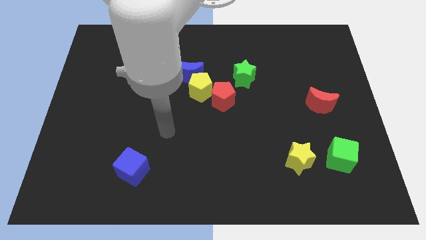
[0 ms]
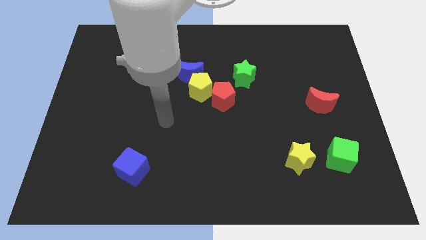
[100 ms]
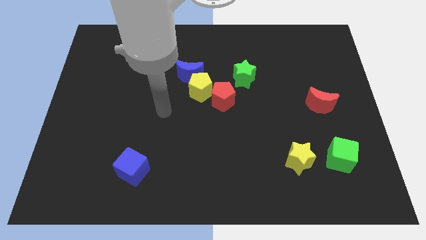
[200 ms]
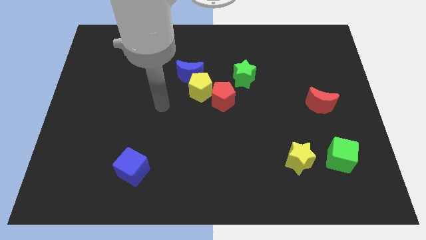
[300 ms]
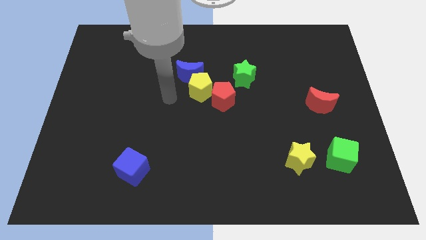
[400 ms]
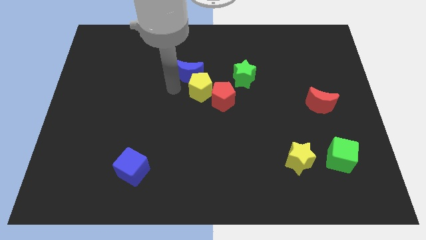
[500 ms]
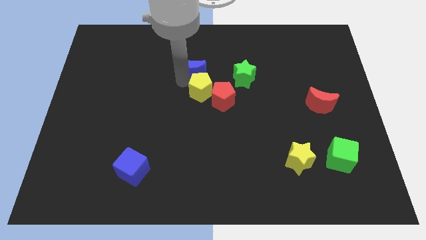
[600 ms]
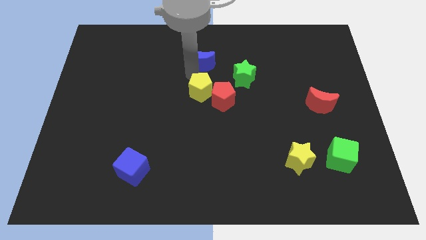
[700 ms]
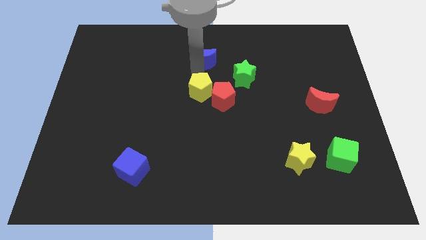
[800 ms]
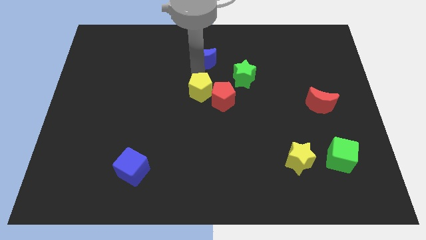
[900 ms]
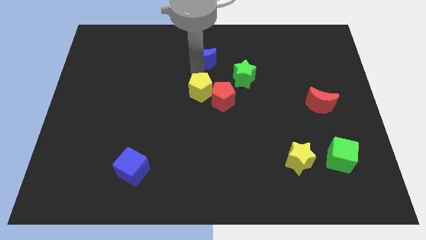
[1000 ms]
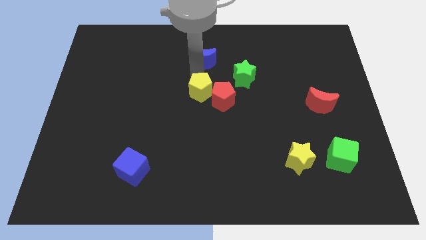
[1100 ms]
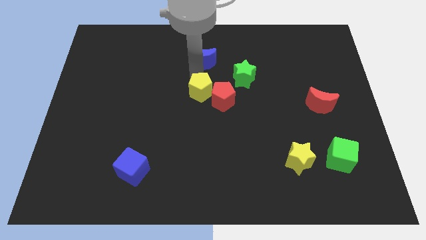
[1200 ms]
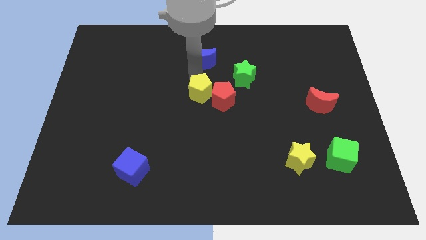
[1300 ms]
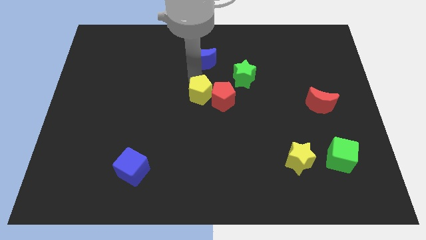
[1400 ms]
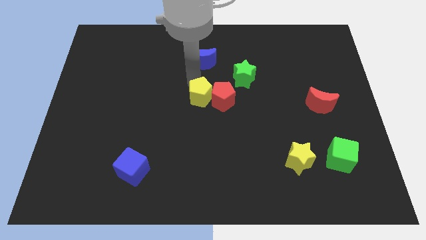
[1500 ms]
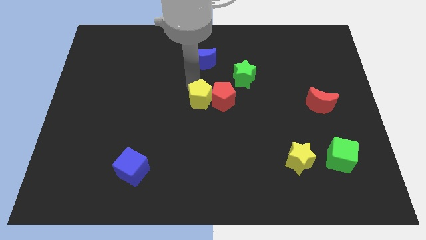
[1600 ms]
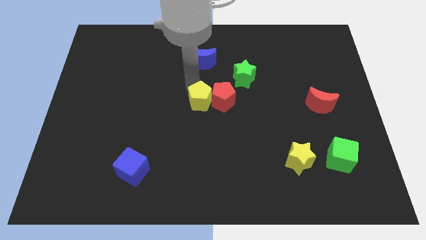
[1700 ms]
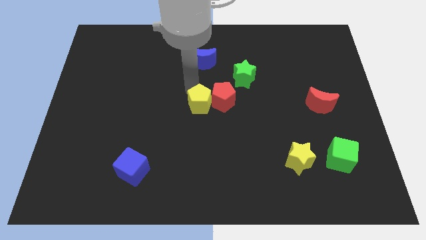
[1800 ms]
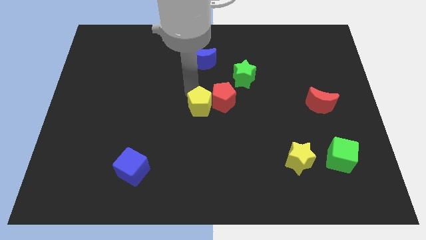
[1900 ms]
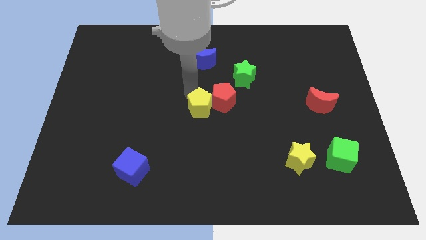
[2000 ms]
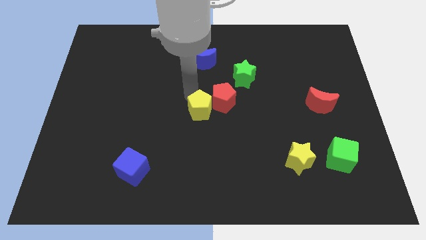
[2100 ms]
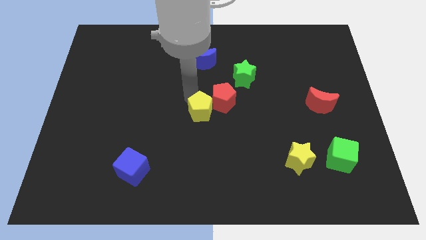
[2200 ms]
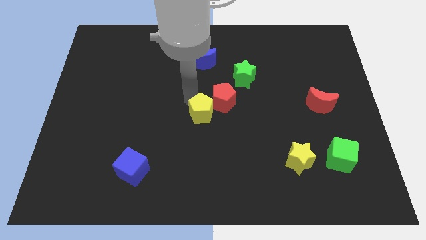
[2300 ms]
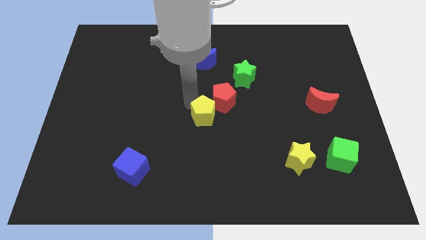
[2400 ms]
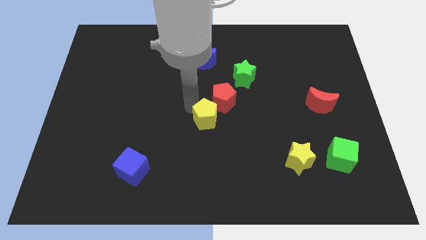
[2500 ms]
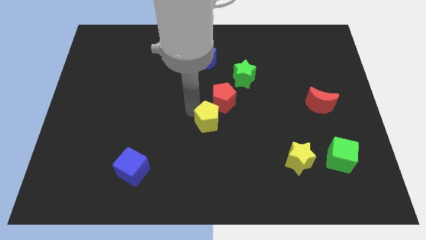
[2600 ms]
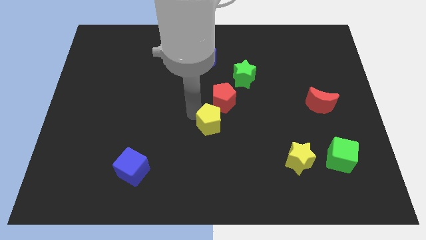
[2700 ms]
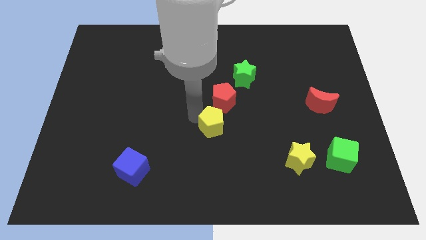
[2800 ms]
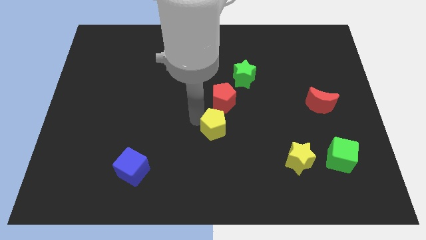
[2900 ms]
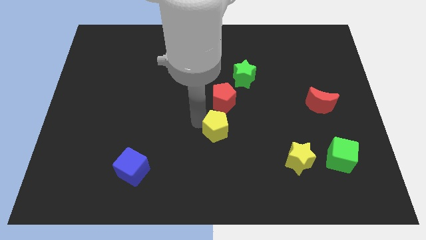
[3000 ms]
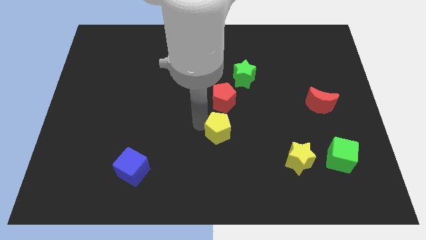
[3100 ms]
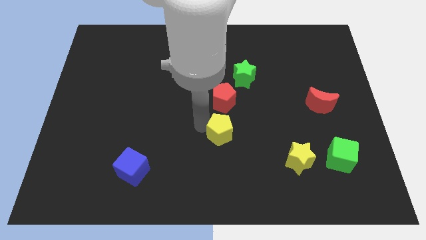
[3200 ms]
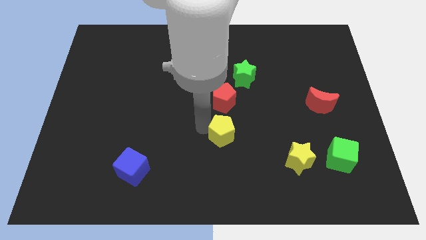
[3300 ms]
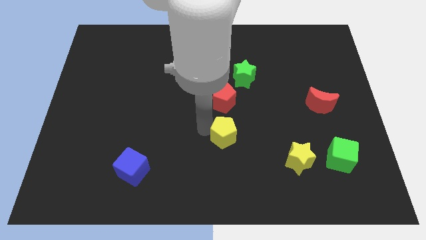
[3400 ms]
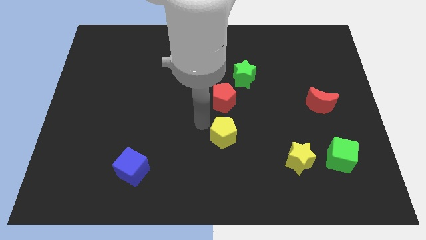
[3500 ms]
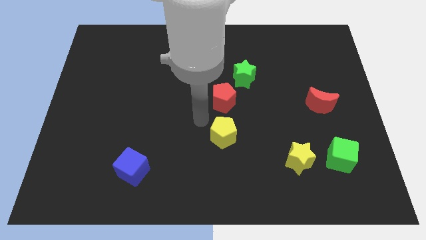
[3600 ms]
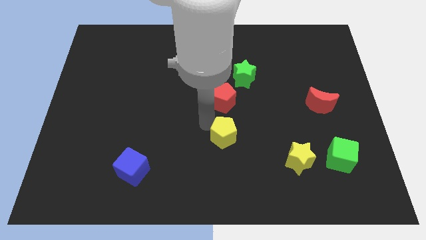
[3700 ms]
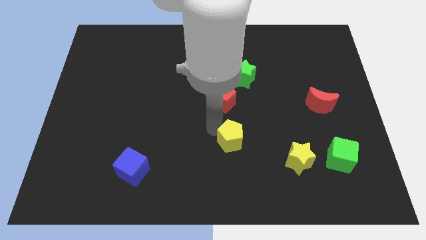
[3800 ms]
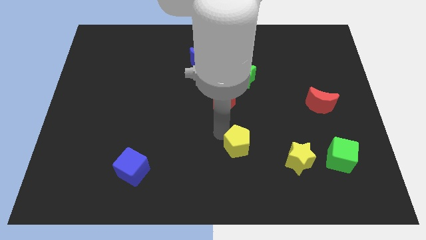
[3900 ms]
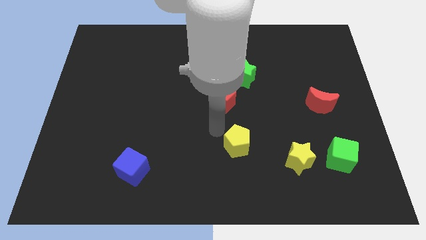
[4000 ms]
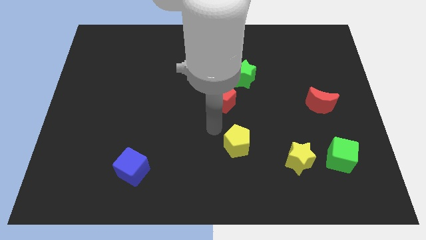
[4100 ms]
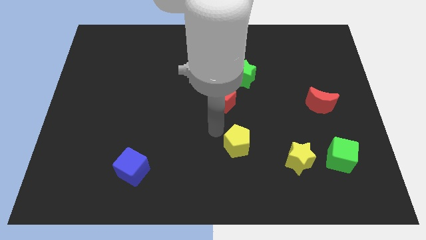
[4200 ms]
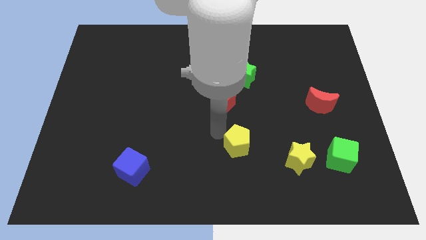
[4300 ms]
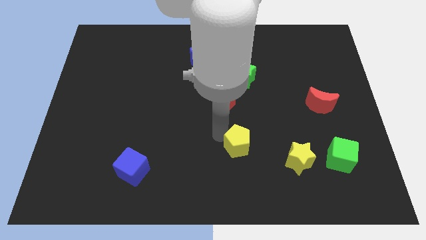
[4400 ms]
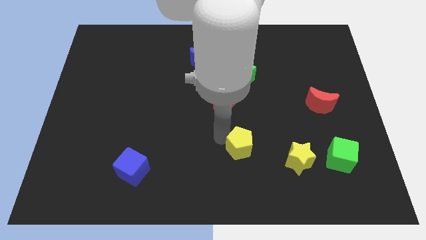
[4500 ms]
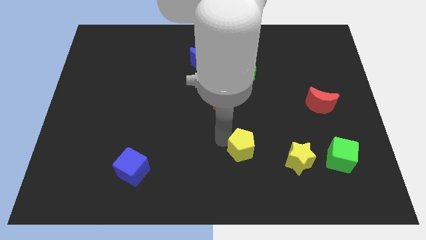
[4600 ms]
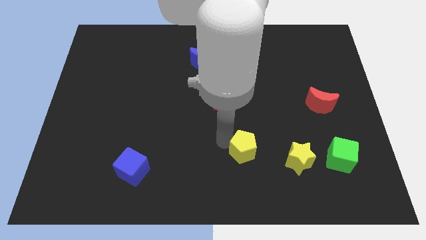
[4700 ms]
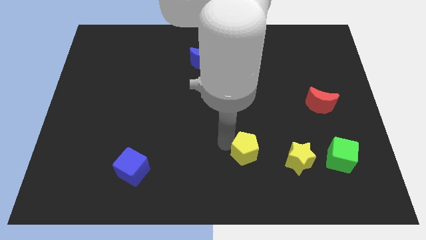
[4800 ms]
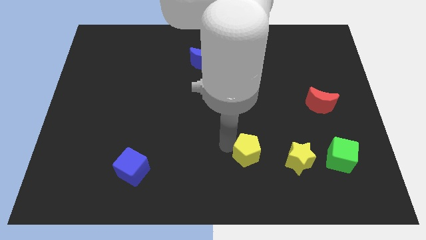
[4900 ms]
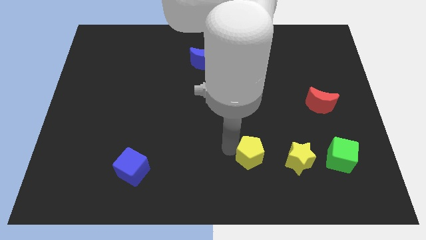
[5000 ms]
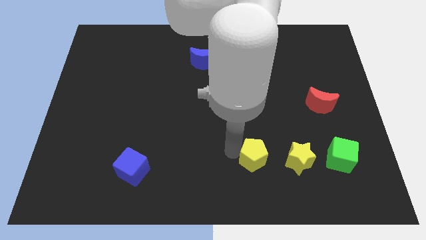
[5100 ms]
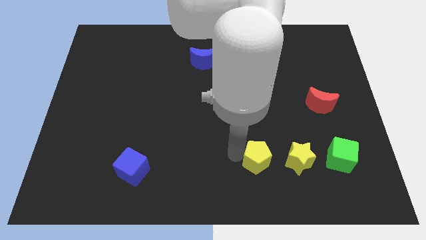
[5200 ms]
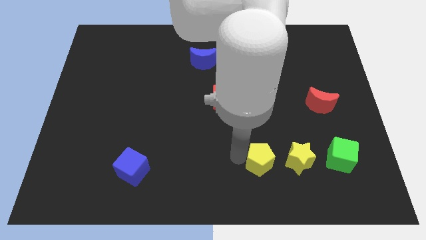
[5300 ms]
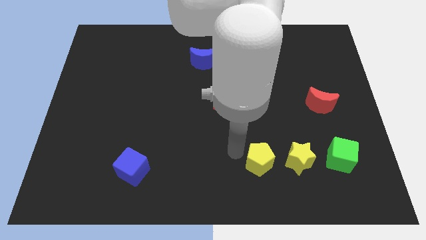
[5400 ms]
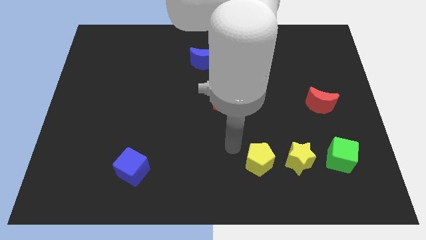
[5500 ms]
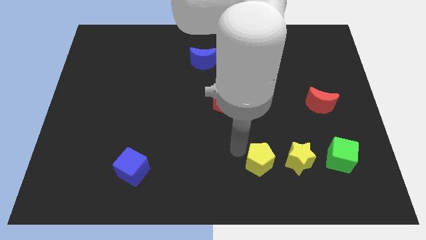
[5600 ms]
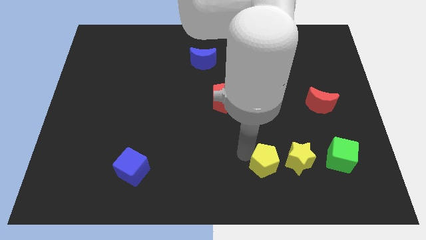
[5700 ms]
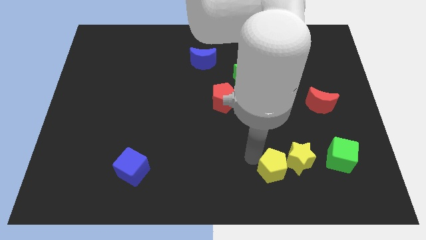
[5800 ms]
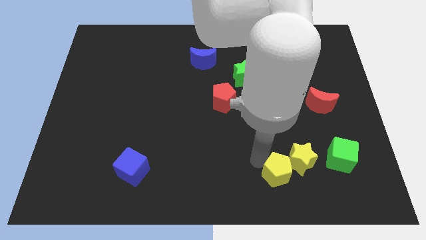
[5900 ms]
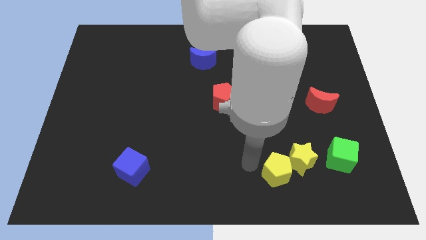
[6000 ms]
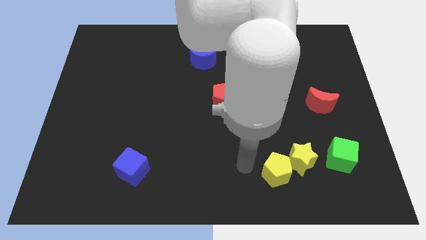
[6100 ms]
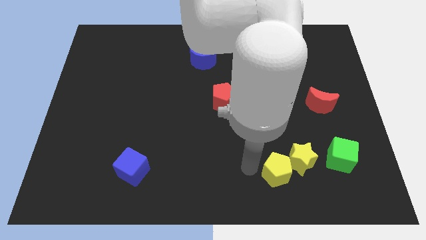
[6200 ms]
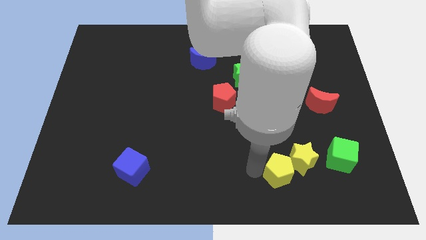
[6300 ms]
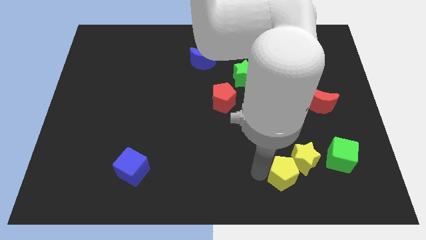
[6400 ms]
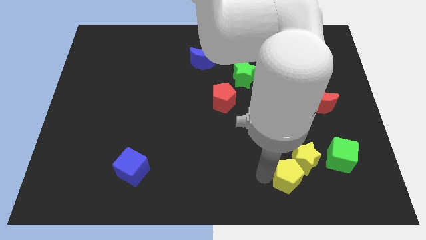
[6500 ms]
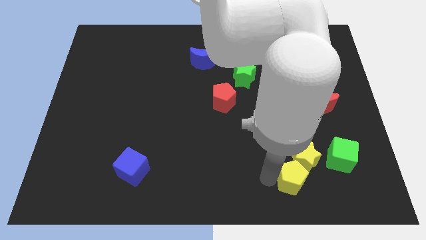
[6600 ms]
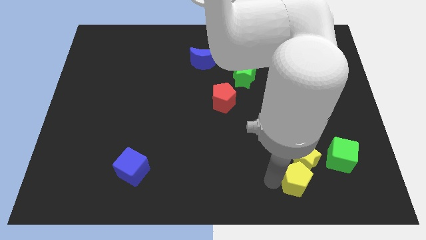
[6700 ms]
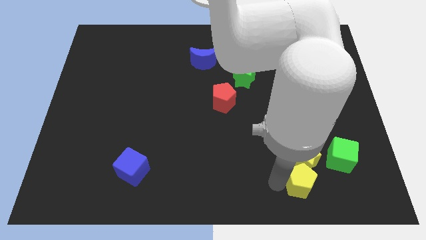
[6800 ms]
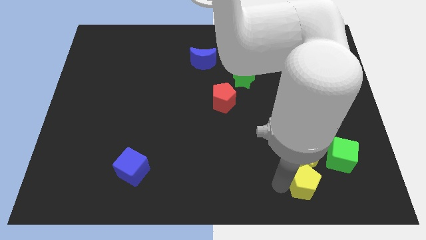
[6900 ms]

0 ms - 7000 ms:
move the yellow pentagon to the bottom right side of the yellow star

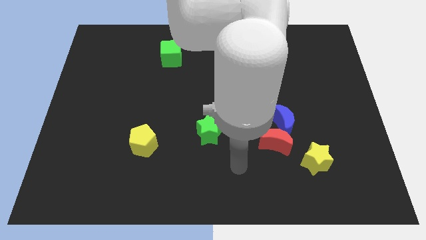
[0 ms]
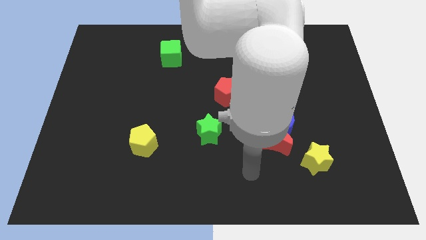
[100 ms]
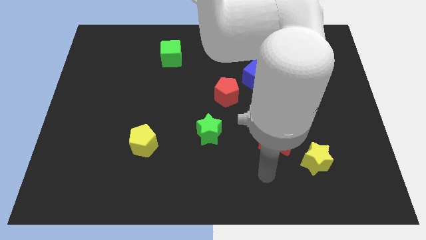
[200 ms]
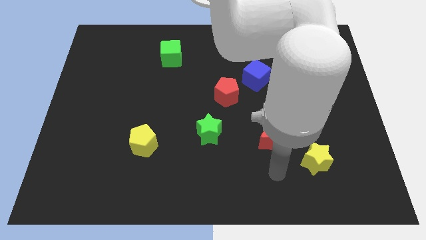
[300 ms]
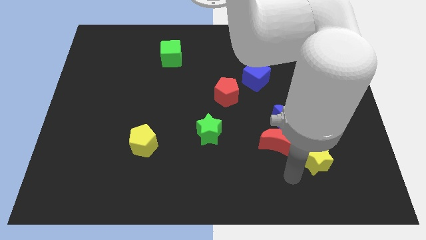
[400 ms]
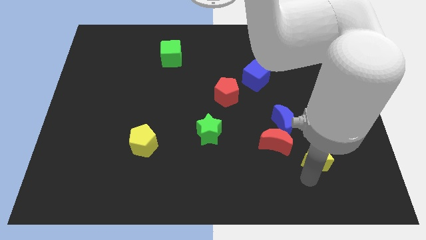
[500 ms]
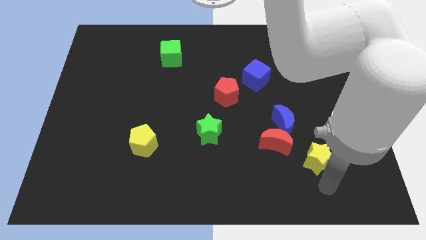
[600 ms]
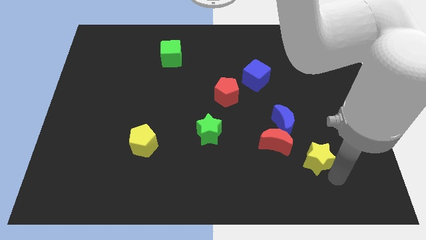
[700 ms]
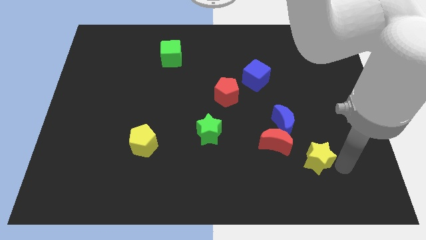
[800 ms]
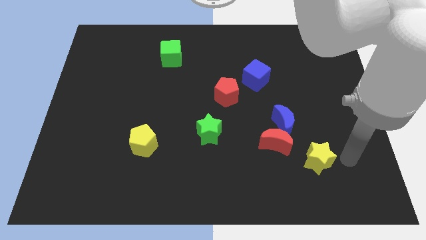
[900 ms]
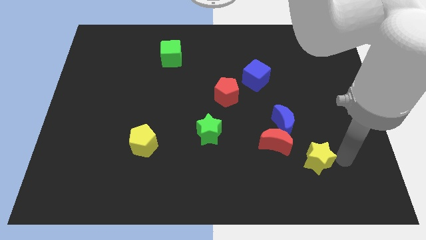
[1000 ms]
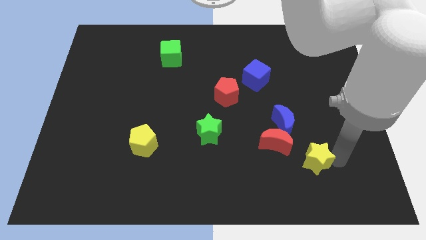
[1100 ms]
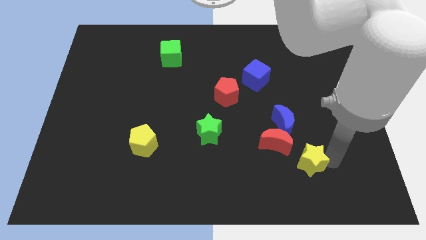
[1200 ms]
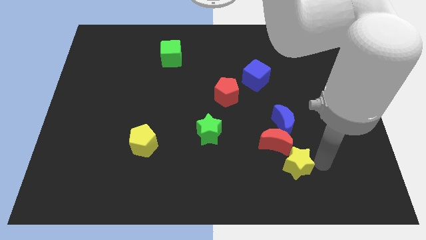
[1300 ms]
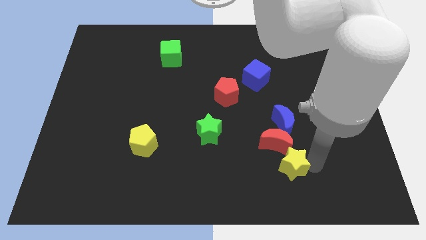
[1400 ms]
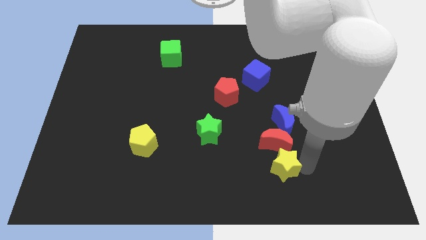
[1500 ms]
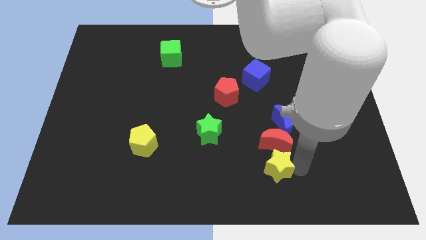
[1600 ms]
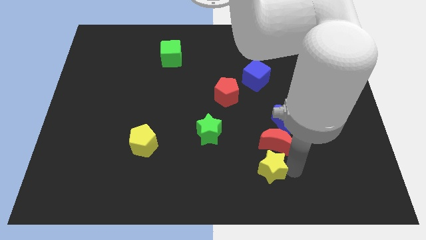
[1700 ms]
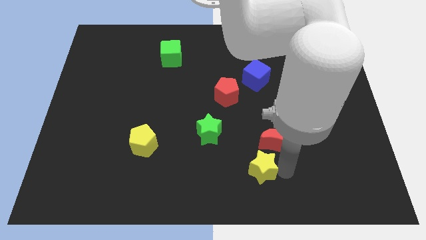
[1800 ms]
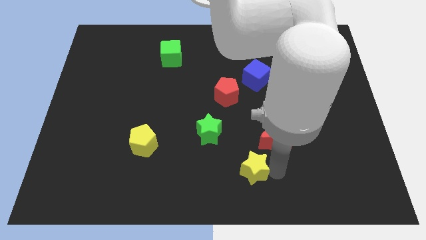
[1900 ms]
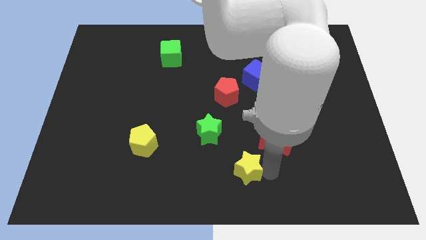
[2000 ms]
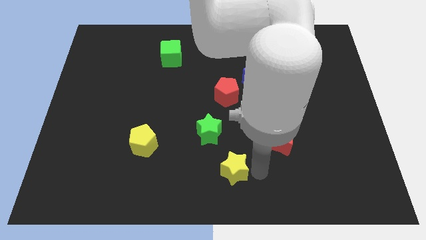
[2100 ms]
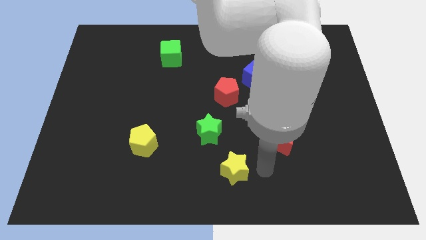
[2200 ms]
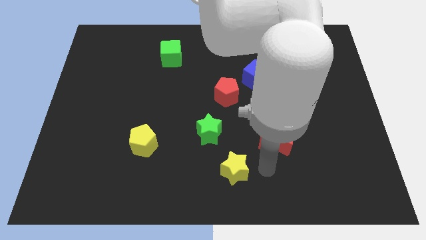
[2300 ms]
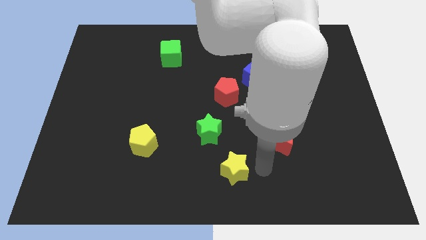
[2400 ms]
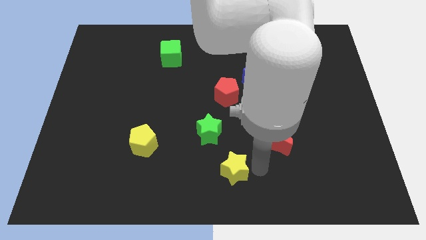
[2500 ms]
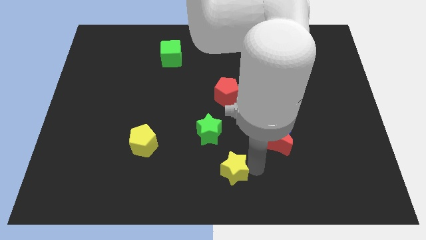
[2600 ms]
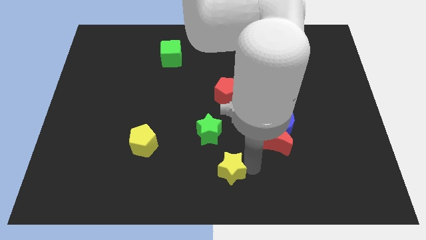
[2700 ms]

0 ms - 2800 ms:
push the yellow star to the bottom side of the green star
